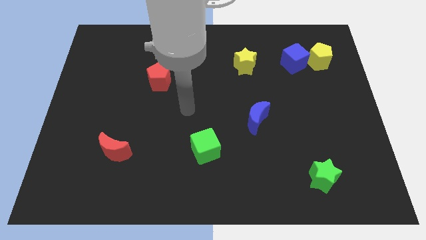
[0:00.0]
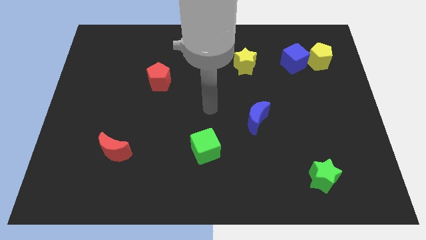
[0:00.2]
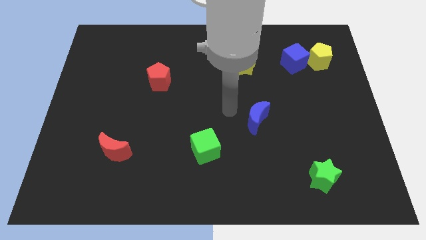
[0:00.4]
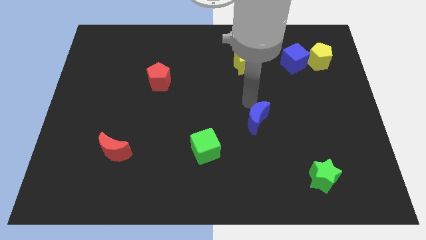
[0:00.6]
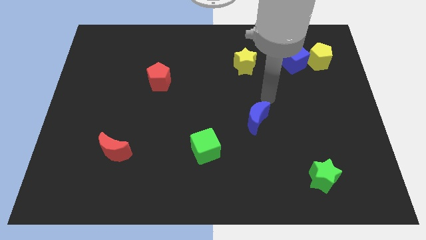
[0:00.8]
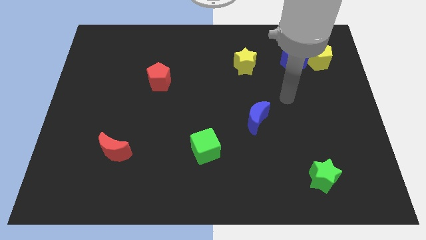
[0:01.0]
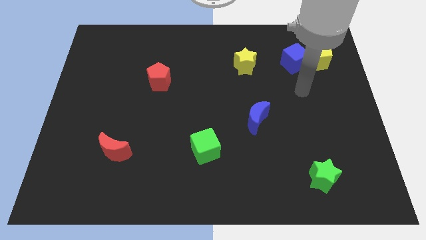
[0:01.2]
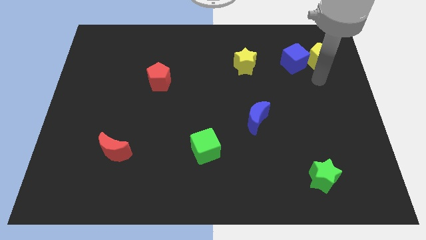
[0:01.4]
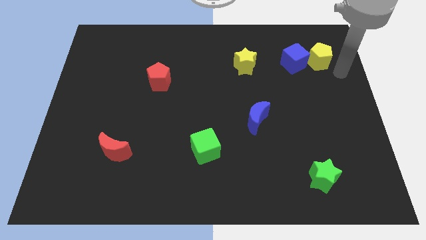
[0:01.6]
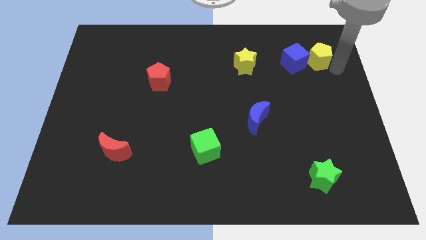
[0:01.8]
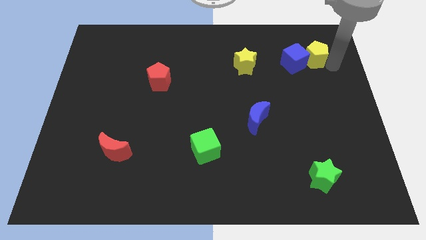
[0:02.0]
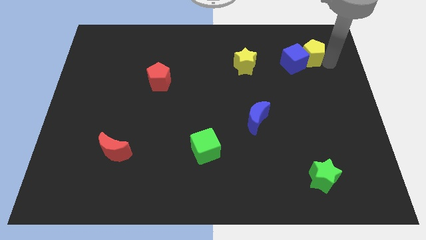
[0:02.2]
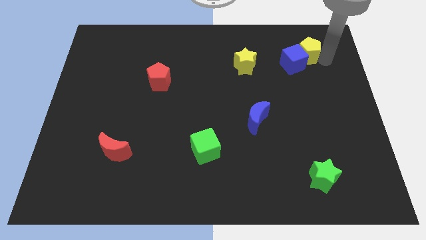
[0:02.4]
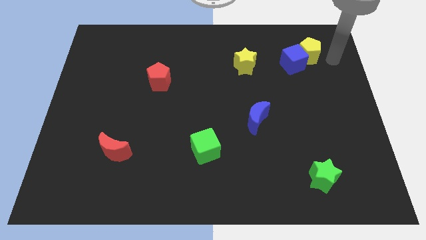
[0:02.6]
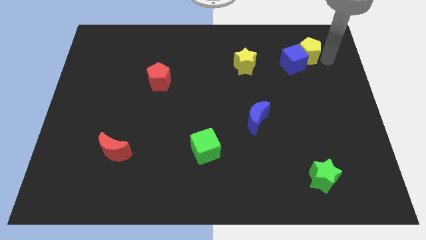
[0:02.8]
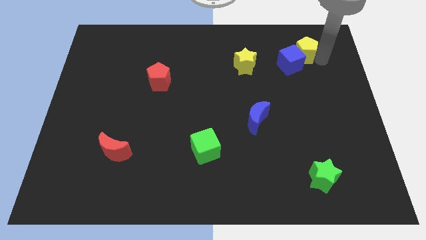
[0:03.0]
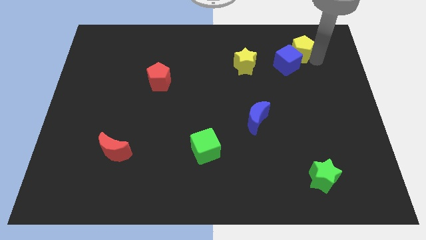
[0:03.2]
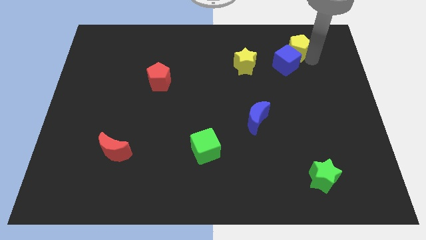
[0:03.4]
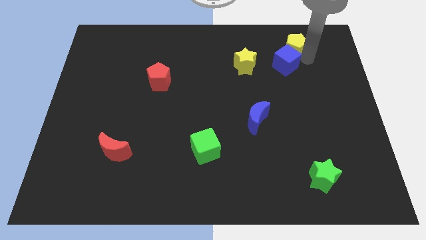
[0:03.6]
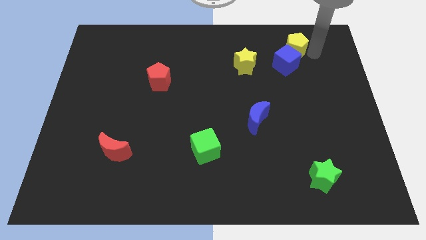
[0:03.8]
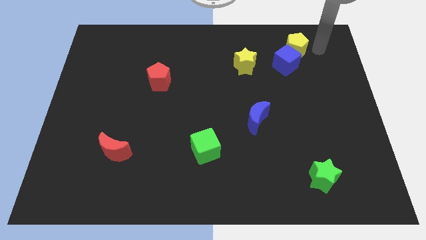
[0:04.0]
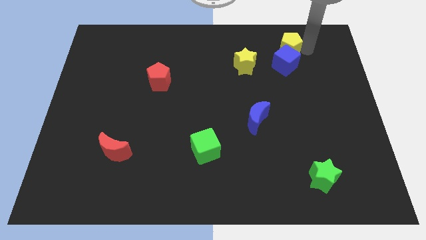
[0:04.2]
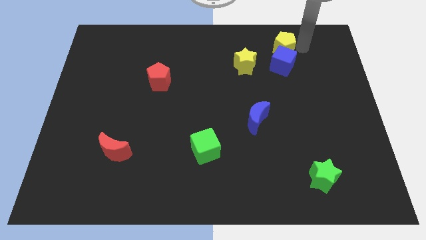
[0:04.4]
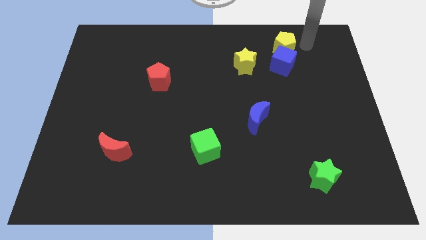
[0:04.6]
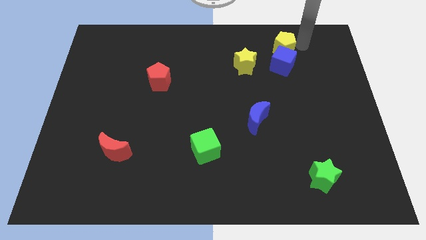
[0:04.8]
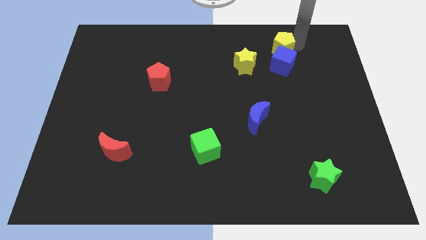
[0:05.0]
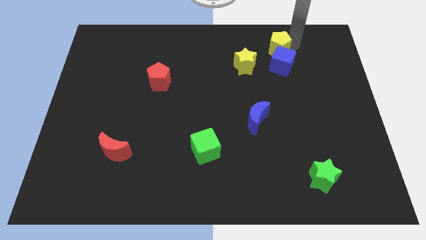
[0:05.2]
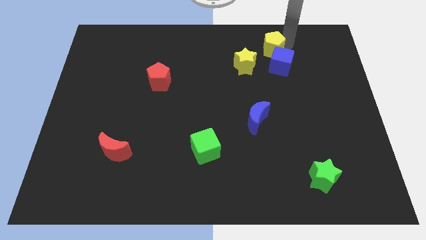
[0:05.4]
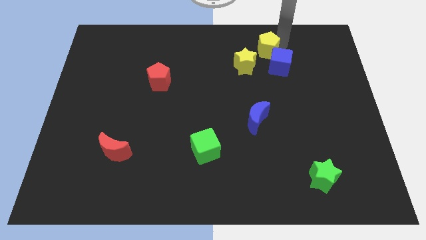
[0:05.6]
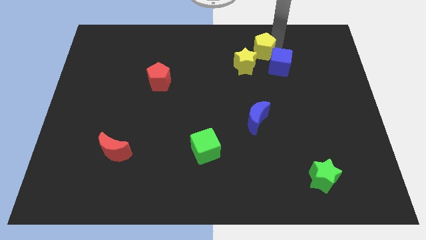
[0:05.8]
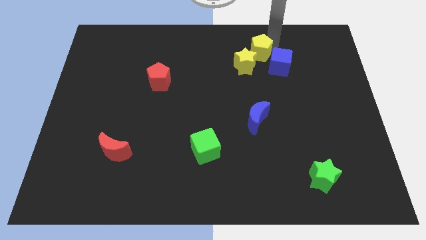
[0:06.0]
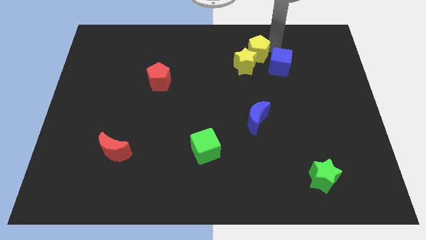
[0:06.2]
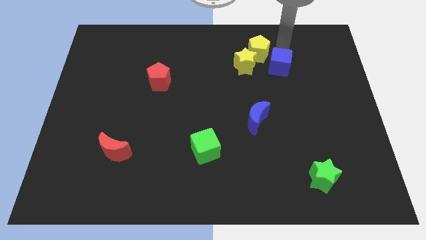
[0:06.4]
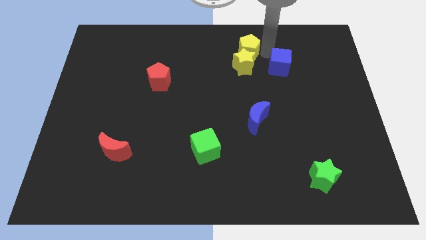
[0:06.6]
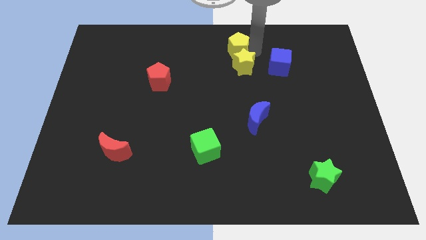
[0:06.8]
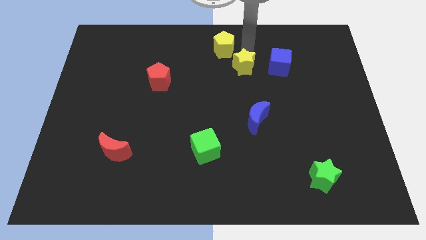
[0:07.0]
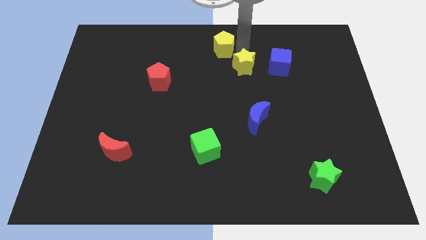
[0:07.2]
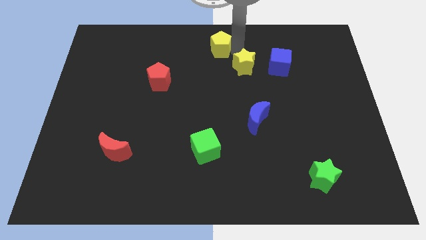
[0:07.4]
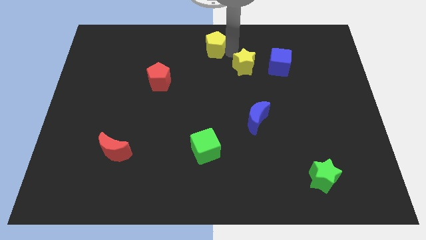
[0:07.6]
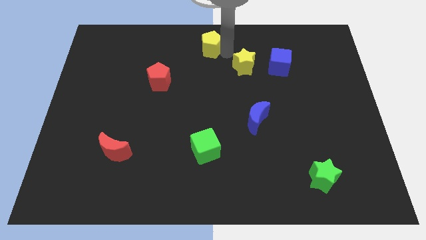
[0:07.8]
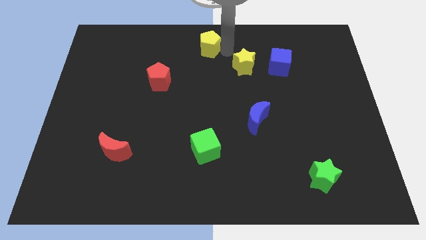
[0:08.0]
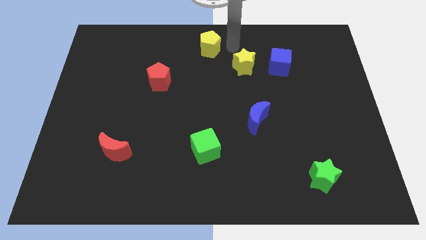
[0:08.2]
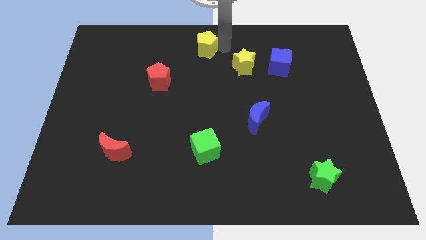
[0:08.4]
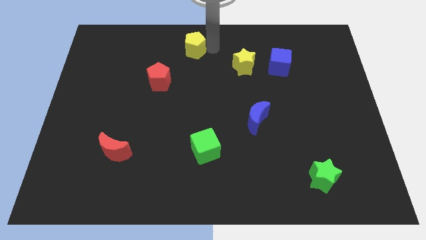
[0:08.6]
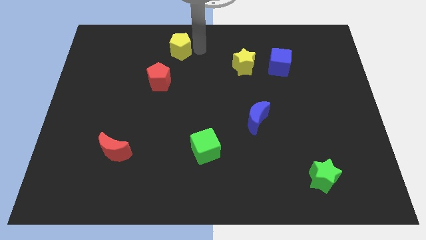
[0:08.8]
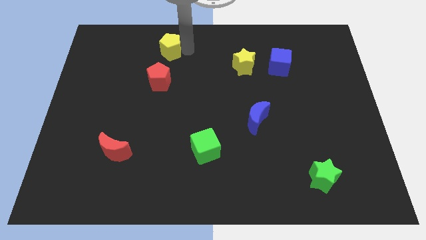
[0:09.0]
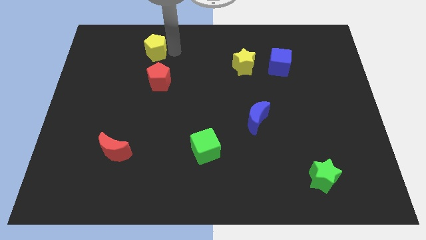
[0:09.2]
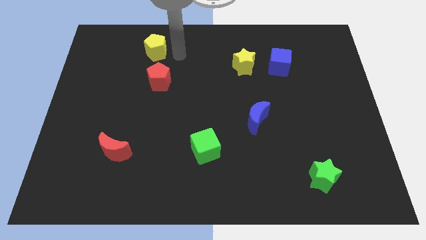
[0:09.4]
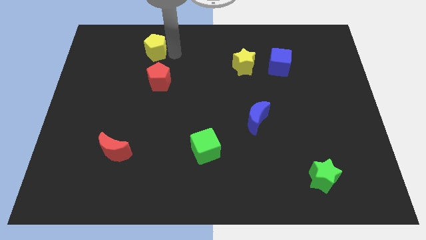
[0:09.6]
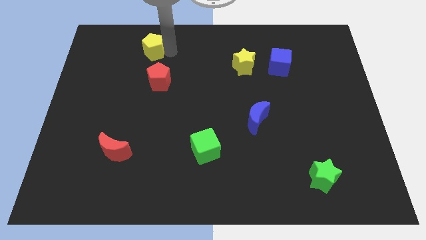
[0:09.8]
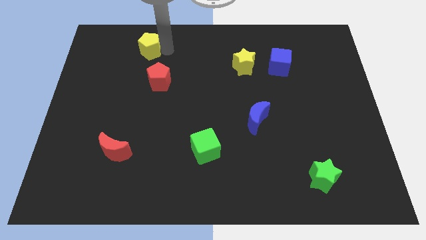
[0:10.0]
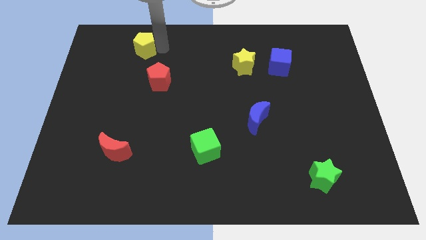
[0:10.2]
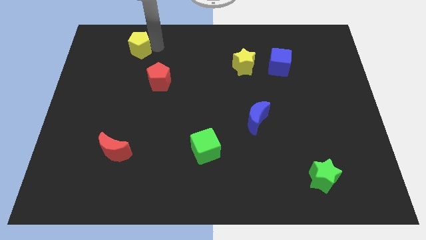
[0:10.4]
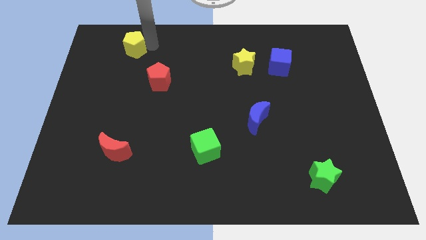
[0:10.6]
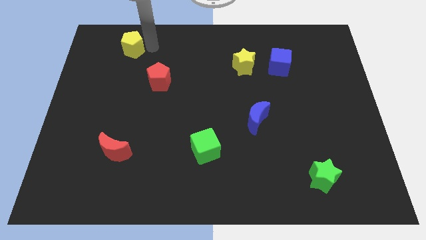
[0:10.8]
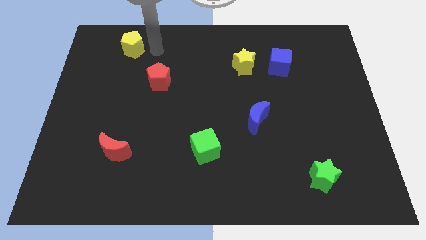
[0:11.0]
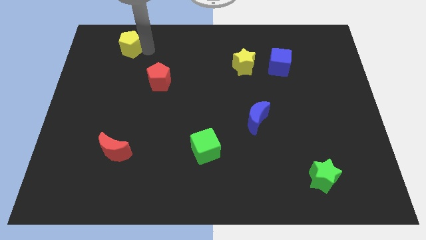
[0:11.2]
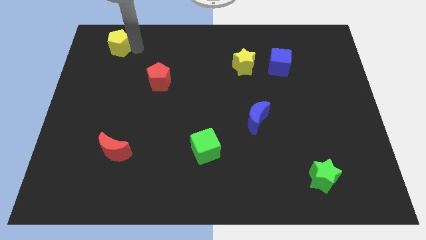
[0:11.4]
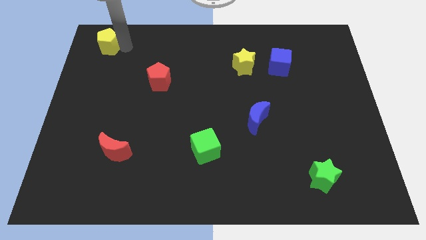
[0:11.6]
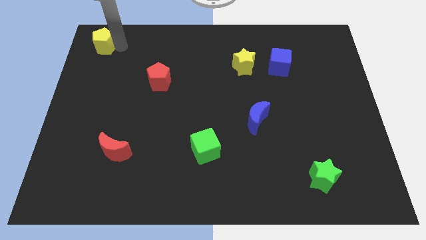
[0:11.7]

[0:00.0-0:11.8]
move the yellow pentagon to the top left

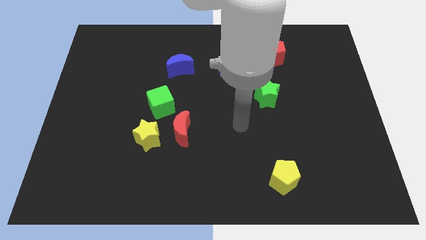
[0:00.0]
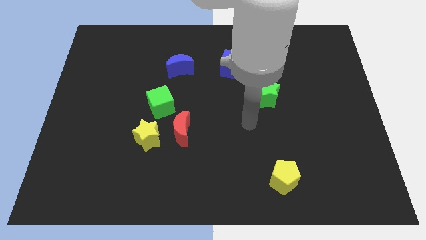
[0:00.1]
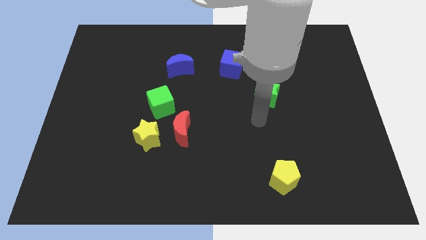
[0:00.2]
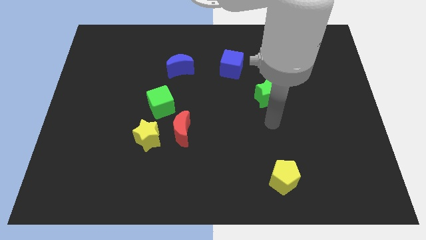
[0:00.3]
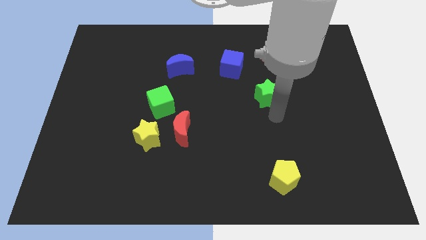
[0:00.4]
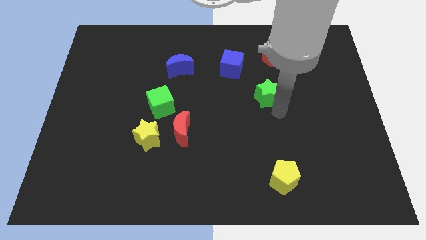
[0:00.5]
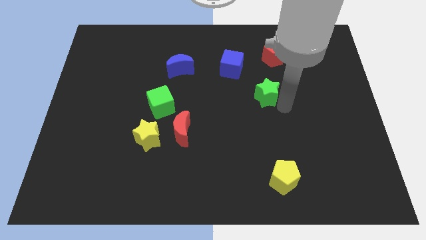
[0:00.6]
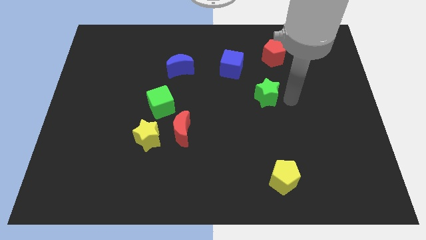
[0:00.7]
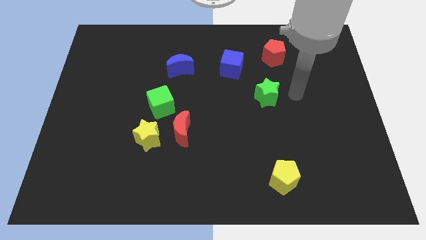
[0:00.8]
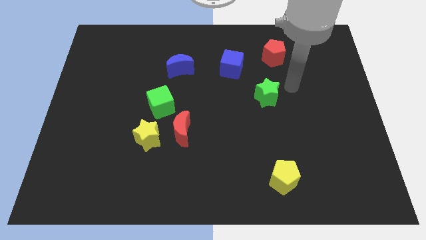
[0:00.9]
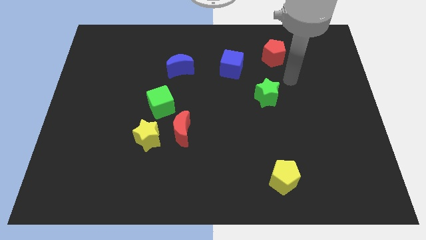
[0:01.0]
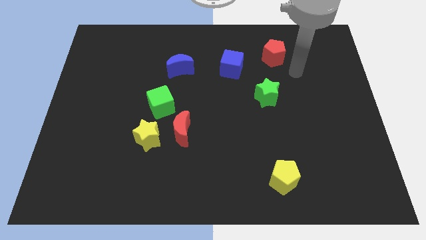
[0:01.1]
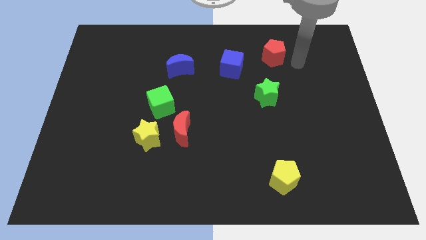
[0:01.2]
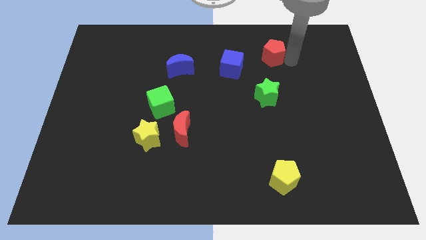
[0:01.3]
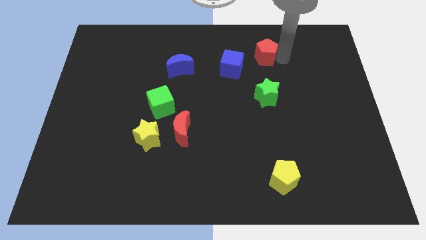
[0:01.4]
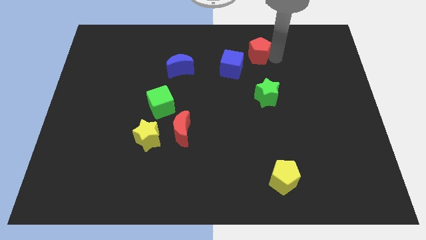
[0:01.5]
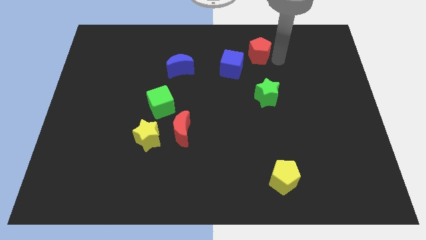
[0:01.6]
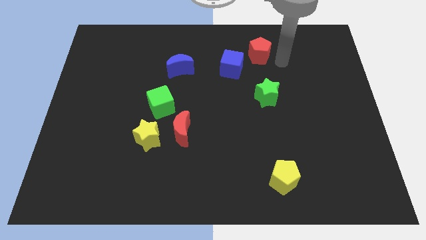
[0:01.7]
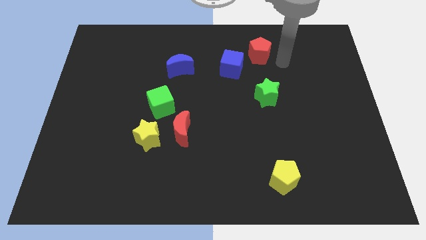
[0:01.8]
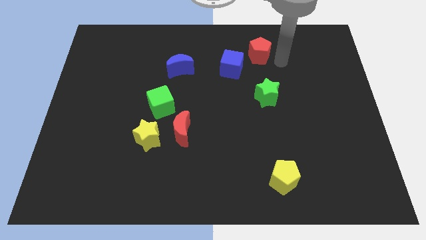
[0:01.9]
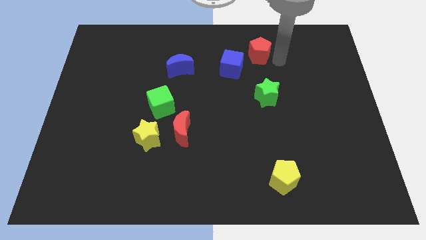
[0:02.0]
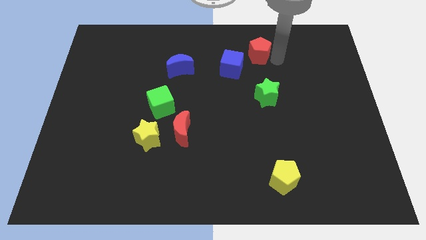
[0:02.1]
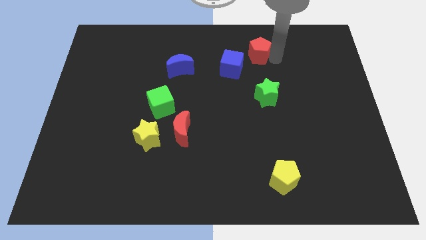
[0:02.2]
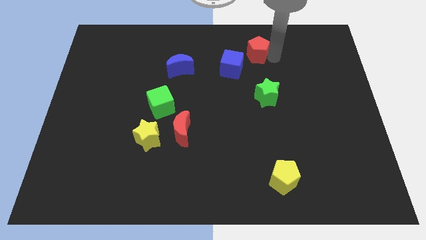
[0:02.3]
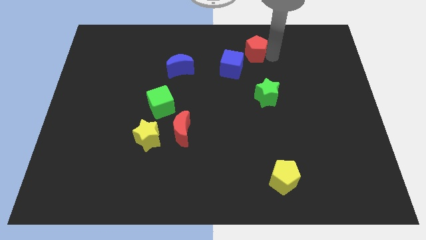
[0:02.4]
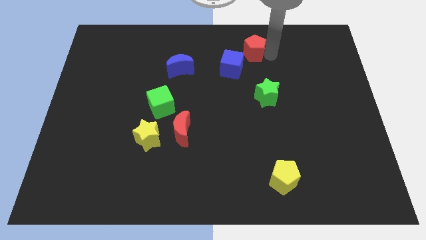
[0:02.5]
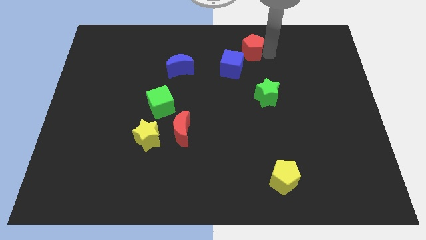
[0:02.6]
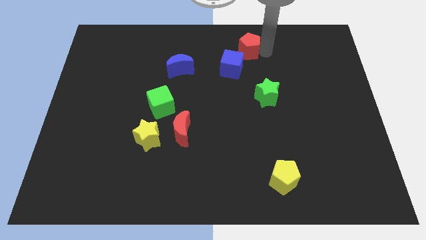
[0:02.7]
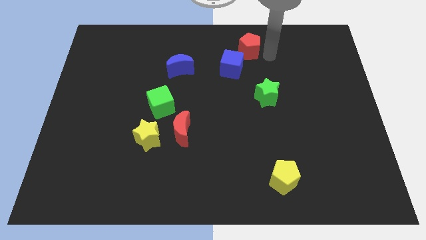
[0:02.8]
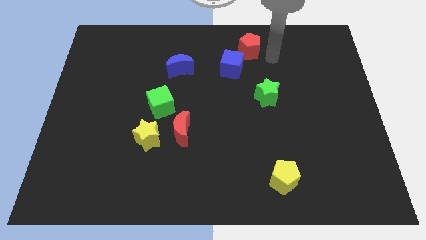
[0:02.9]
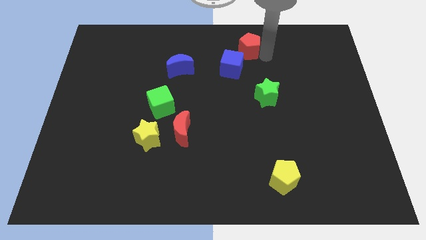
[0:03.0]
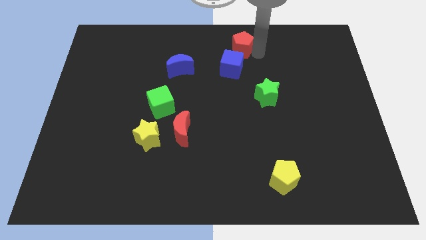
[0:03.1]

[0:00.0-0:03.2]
move the red pentagon to the top side
